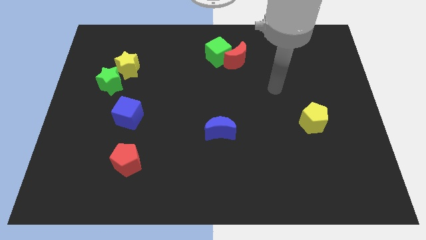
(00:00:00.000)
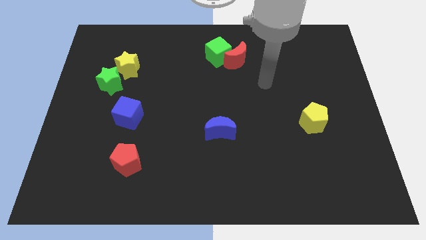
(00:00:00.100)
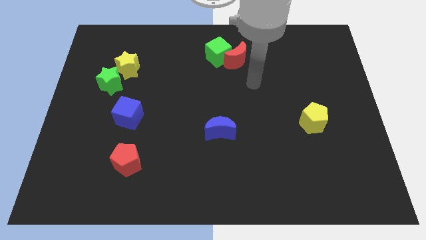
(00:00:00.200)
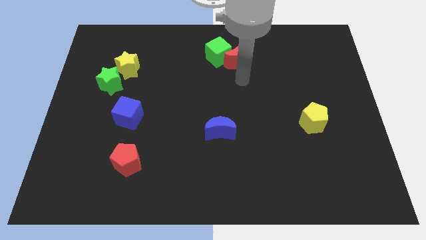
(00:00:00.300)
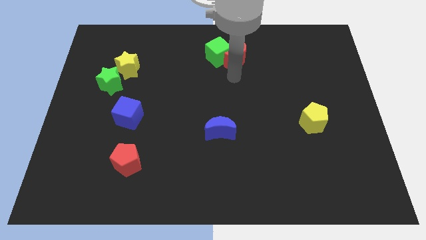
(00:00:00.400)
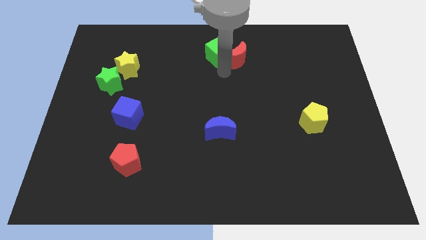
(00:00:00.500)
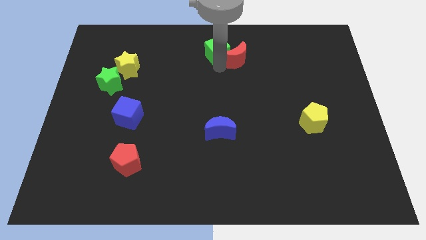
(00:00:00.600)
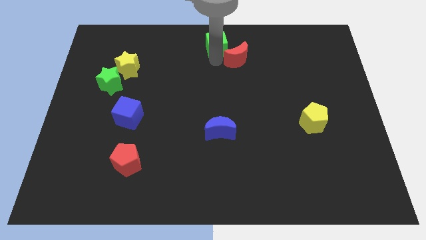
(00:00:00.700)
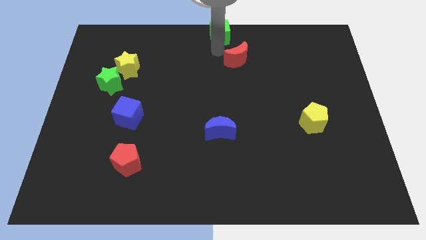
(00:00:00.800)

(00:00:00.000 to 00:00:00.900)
move the red moon away from the green cube

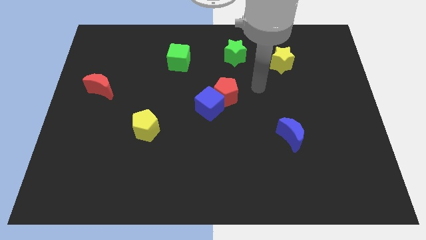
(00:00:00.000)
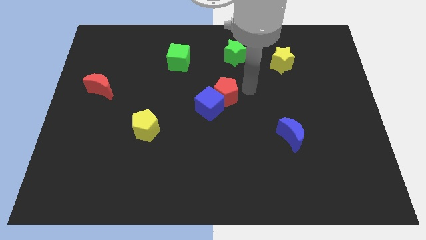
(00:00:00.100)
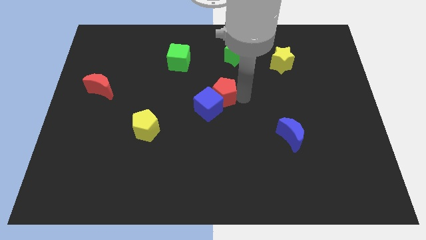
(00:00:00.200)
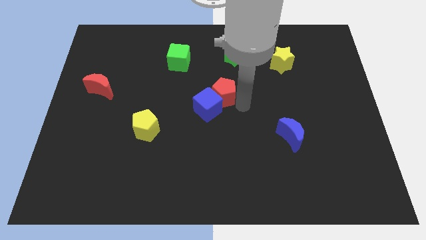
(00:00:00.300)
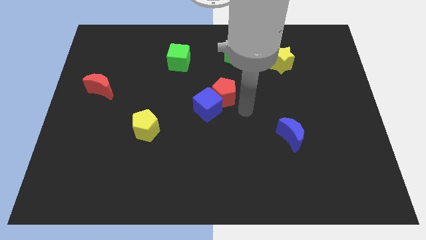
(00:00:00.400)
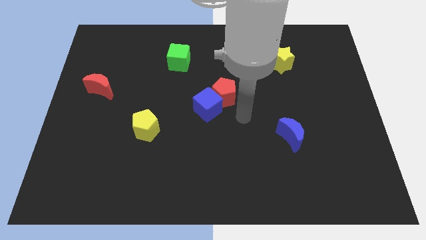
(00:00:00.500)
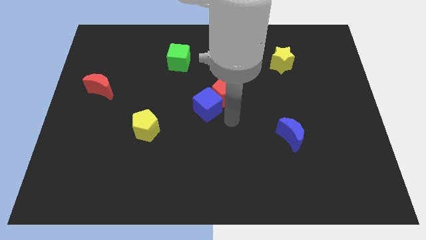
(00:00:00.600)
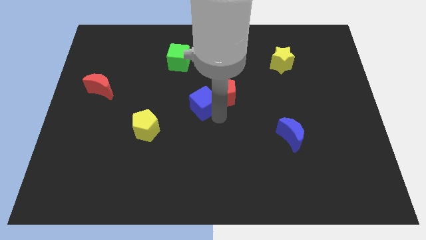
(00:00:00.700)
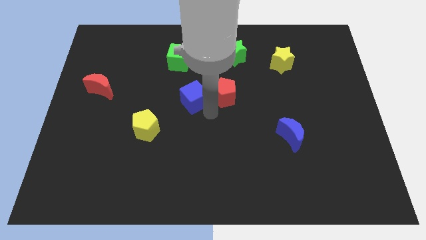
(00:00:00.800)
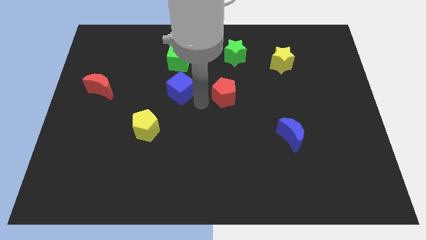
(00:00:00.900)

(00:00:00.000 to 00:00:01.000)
separate the red pentagon from the blue cube

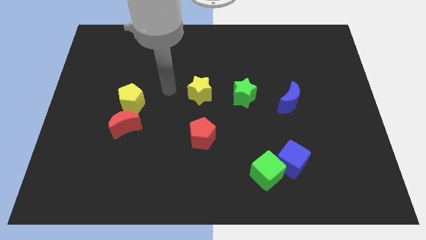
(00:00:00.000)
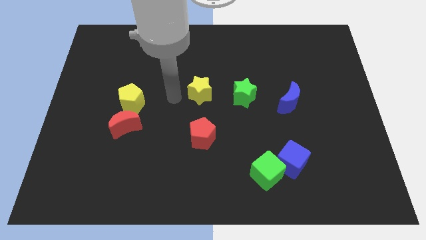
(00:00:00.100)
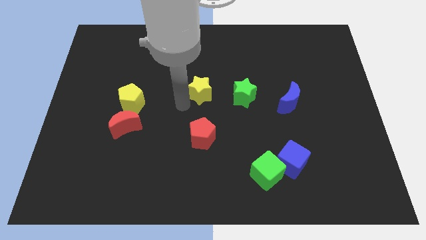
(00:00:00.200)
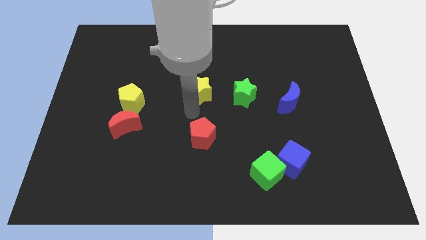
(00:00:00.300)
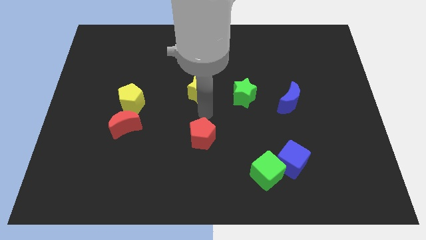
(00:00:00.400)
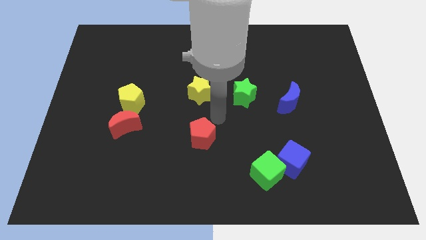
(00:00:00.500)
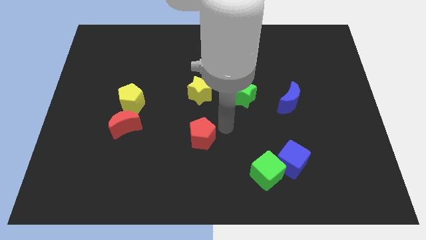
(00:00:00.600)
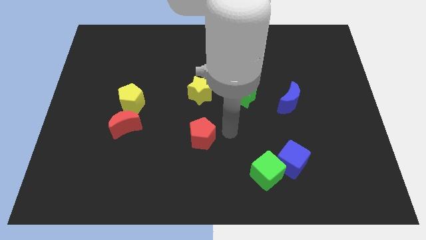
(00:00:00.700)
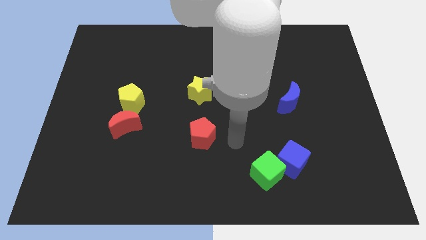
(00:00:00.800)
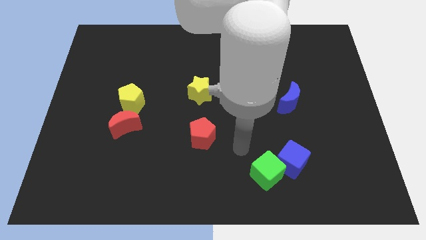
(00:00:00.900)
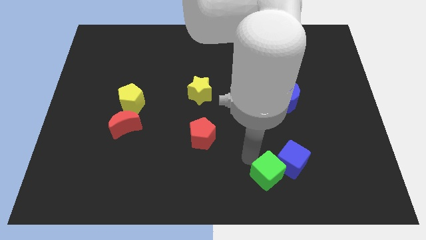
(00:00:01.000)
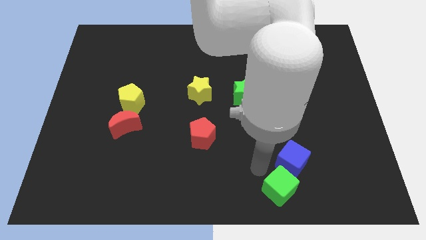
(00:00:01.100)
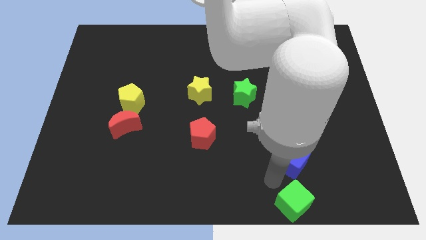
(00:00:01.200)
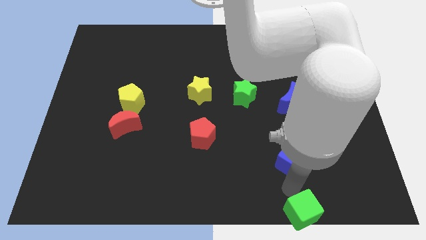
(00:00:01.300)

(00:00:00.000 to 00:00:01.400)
move the blue cube away from the green cube

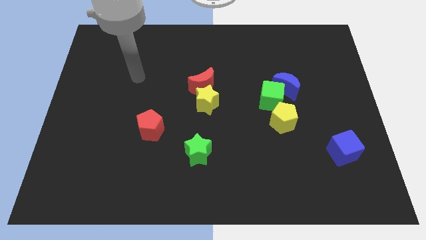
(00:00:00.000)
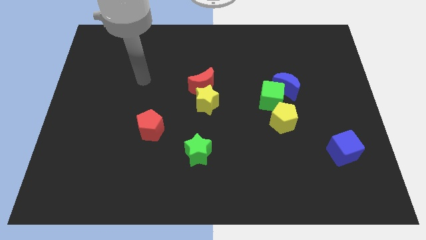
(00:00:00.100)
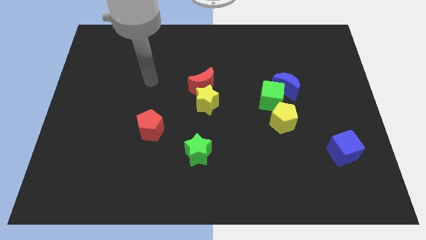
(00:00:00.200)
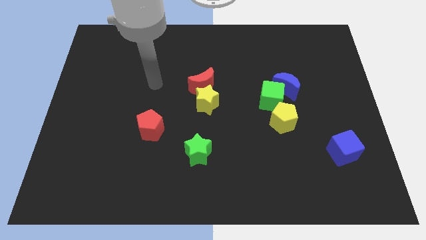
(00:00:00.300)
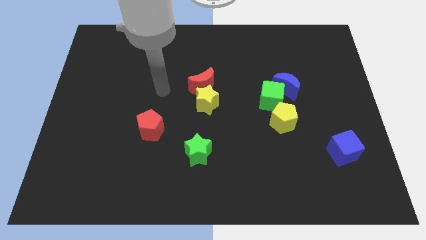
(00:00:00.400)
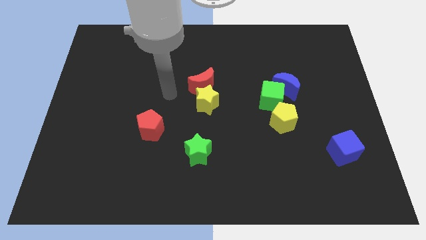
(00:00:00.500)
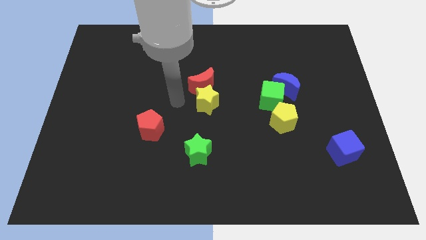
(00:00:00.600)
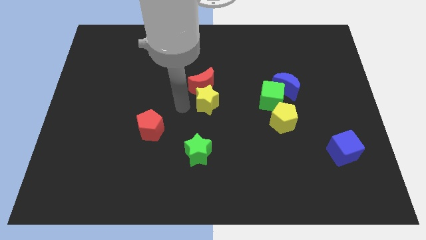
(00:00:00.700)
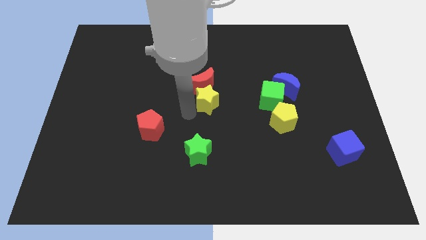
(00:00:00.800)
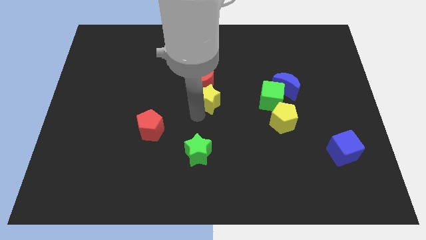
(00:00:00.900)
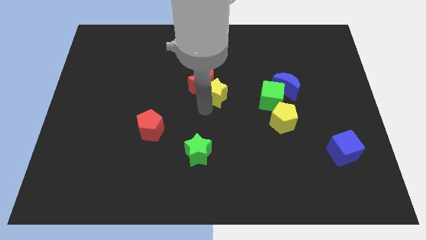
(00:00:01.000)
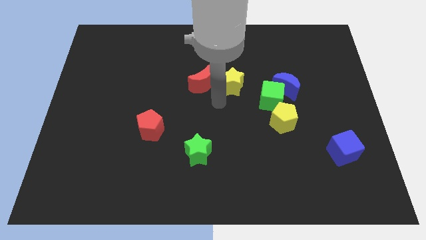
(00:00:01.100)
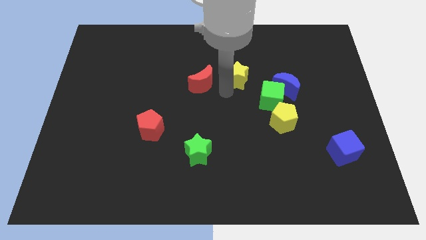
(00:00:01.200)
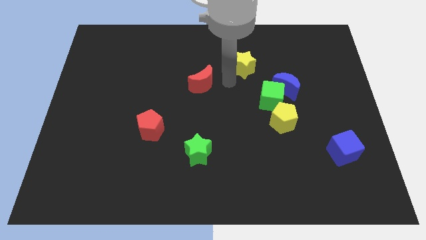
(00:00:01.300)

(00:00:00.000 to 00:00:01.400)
move the red moon away from the yellow star

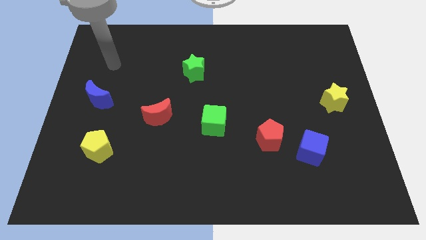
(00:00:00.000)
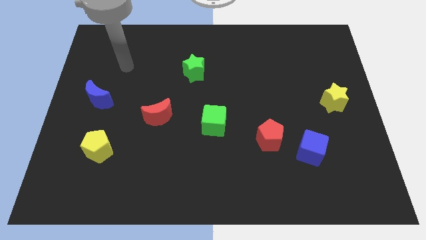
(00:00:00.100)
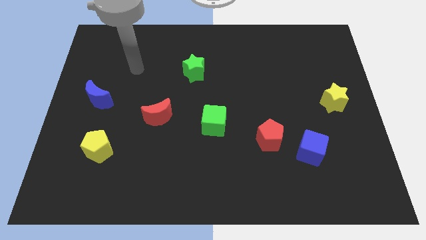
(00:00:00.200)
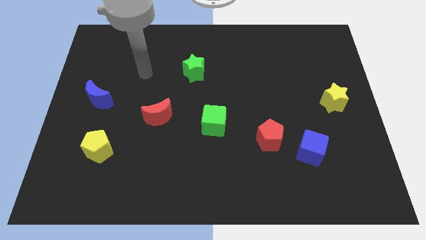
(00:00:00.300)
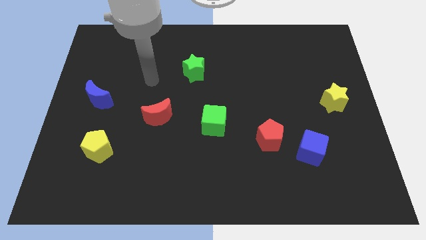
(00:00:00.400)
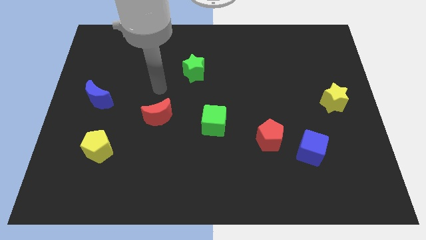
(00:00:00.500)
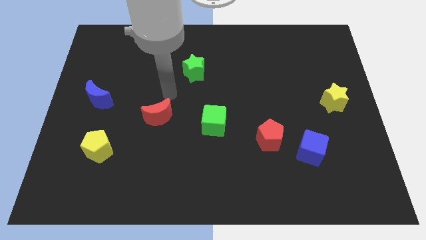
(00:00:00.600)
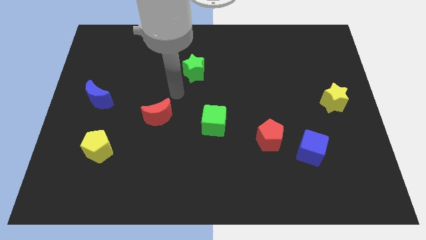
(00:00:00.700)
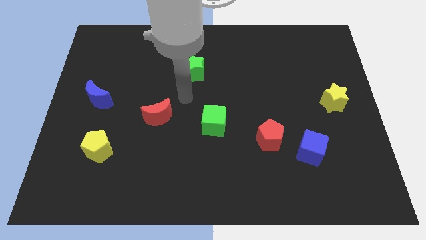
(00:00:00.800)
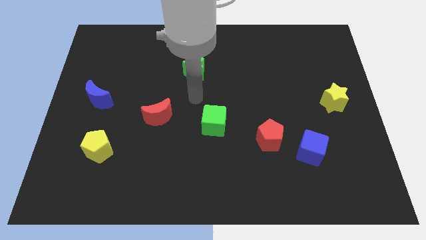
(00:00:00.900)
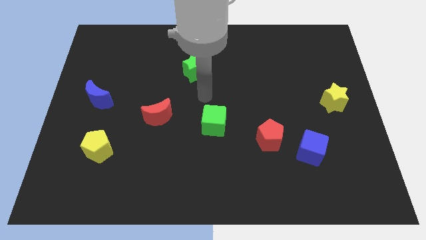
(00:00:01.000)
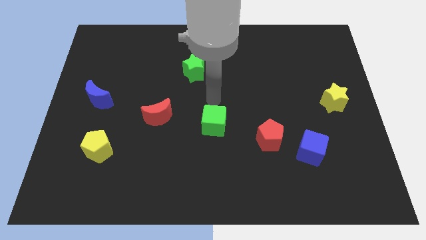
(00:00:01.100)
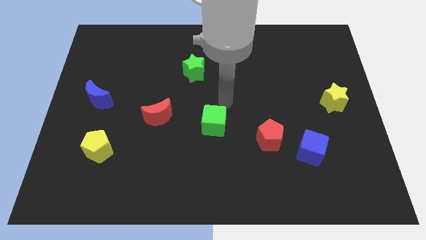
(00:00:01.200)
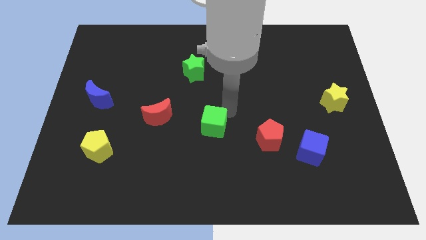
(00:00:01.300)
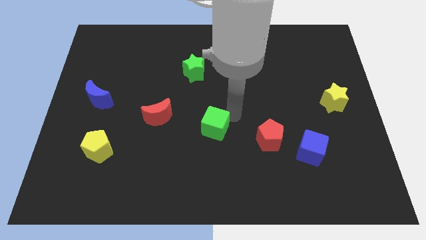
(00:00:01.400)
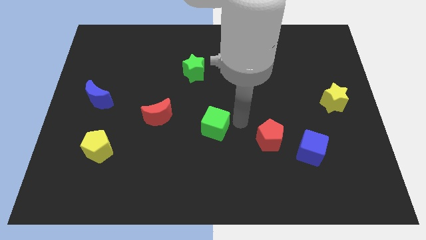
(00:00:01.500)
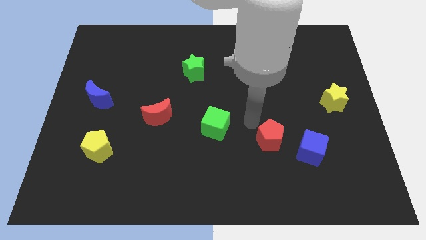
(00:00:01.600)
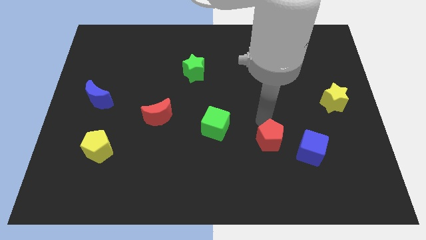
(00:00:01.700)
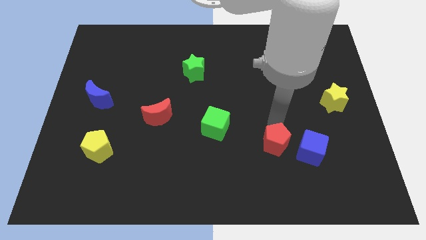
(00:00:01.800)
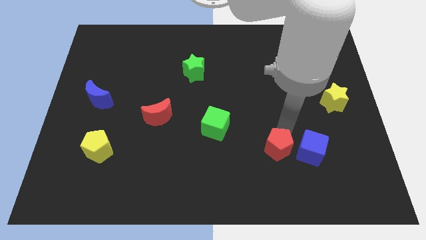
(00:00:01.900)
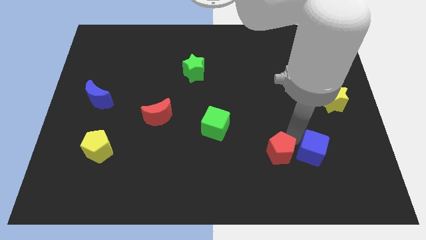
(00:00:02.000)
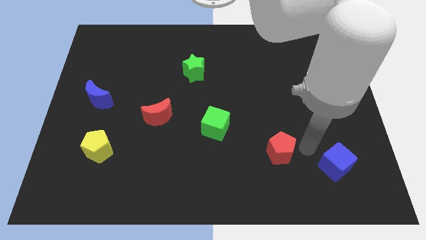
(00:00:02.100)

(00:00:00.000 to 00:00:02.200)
pull the red pentagon apart from the blue cube

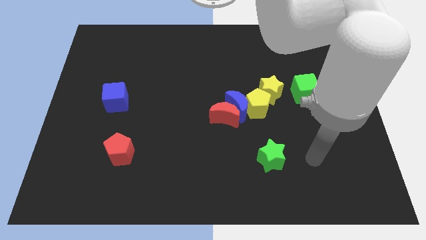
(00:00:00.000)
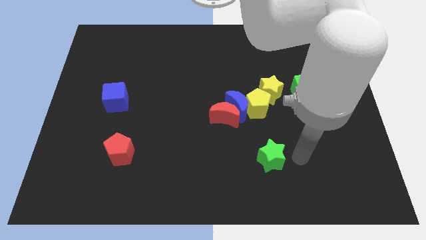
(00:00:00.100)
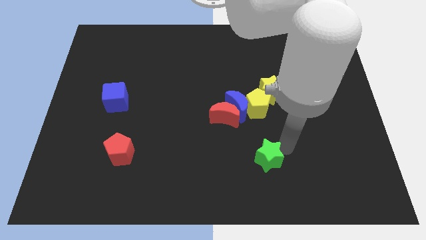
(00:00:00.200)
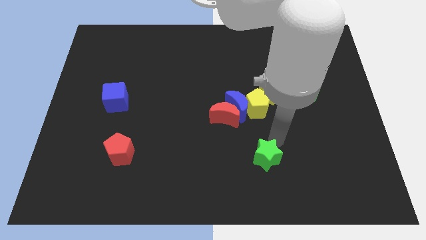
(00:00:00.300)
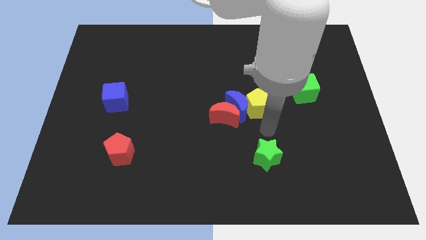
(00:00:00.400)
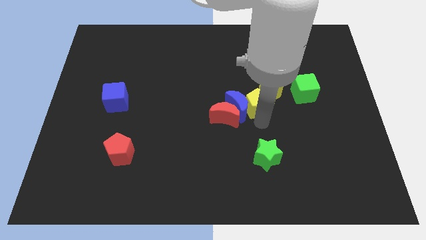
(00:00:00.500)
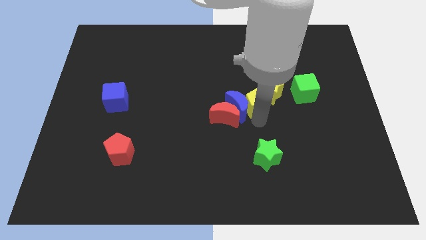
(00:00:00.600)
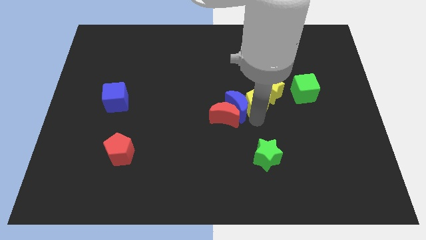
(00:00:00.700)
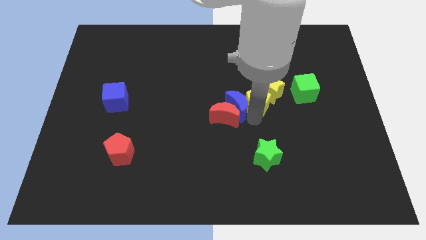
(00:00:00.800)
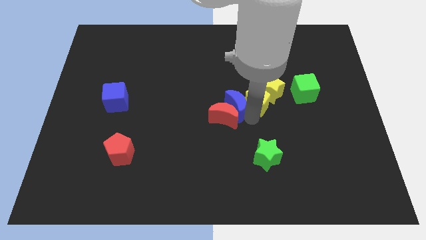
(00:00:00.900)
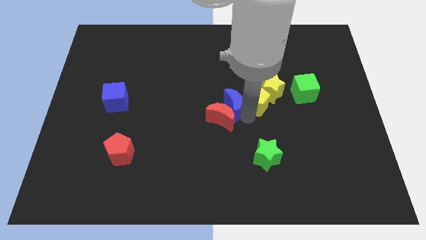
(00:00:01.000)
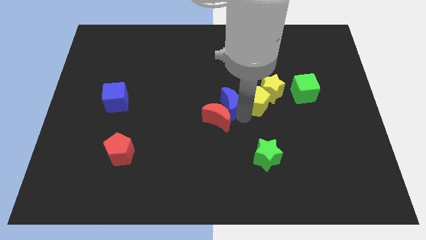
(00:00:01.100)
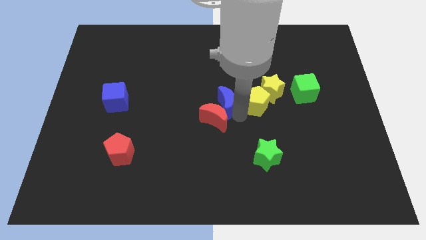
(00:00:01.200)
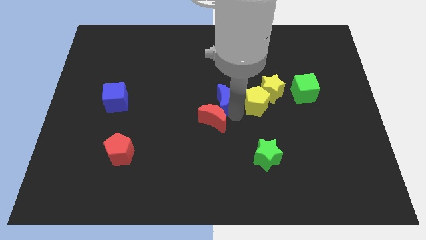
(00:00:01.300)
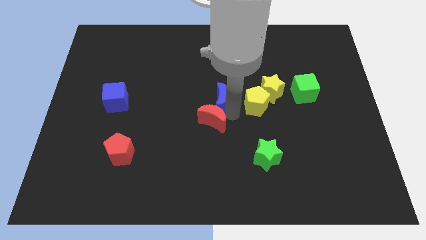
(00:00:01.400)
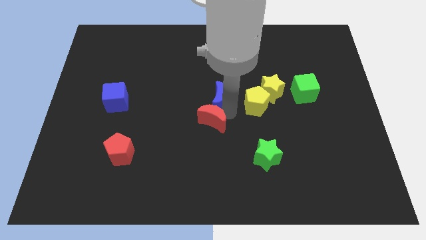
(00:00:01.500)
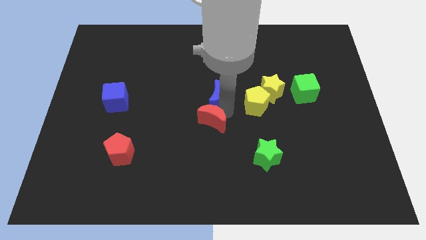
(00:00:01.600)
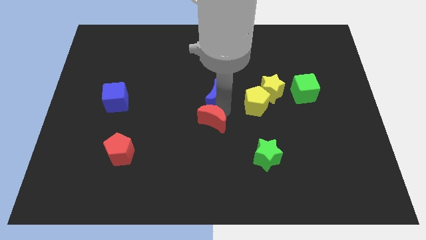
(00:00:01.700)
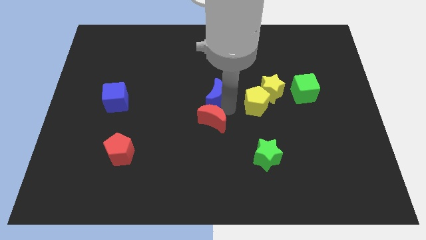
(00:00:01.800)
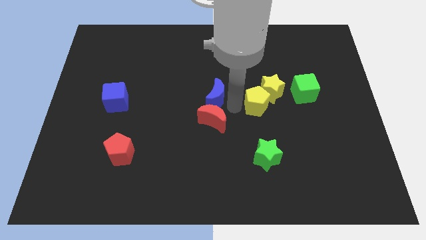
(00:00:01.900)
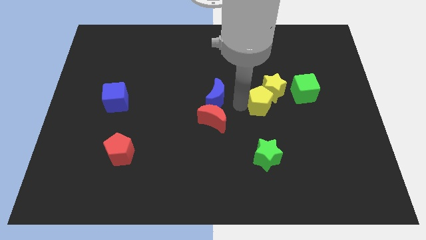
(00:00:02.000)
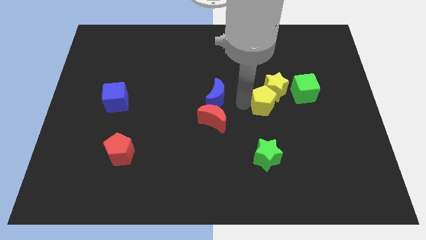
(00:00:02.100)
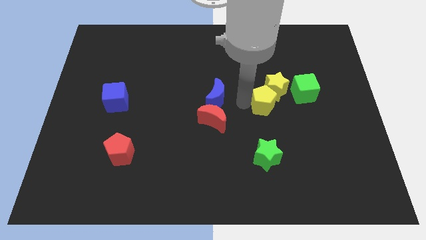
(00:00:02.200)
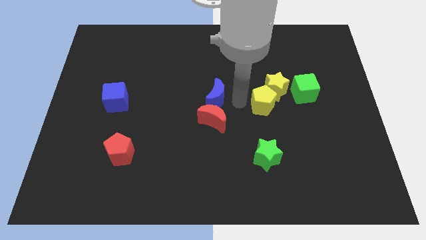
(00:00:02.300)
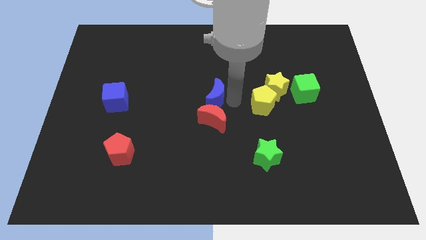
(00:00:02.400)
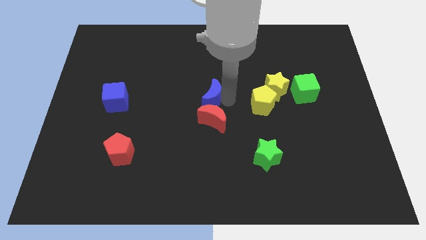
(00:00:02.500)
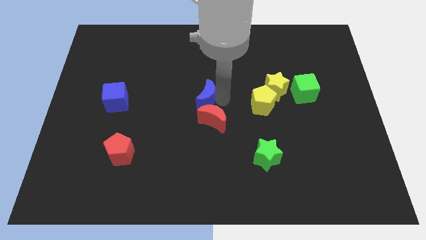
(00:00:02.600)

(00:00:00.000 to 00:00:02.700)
pull the blue moon apart from the group
